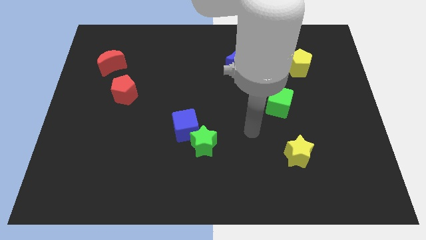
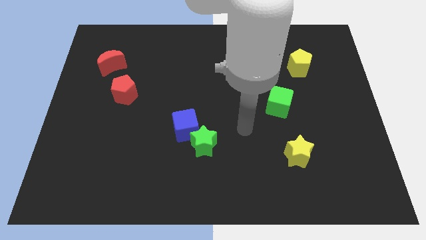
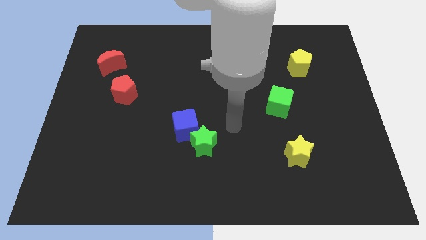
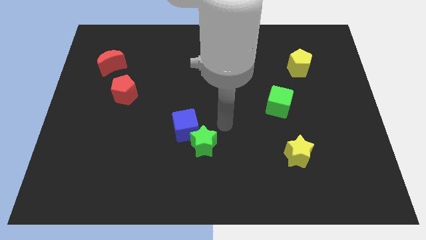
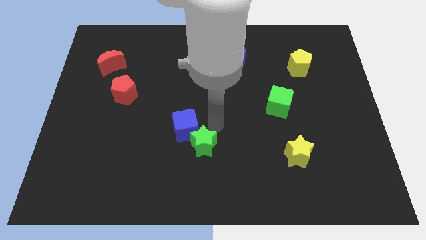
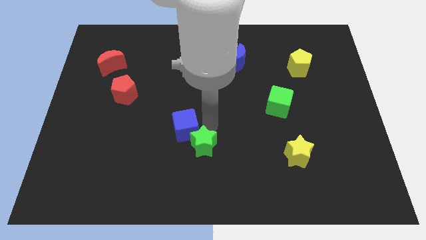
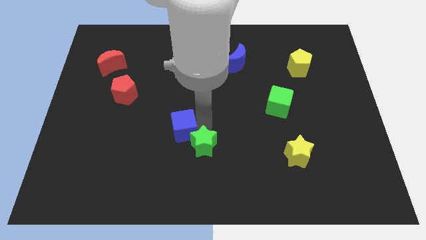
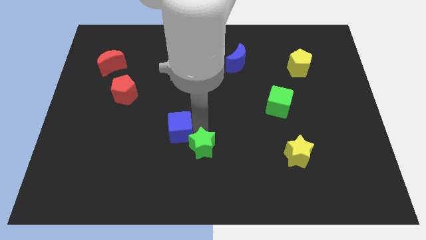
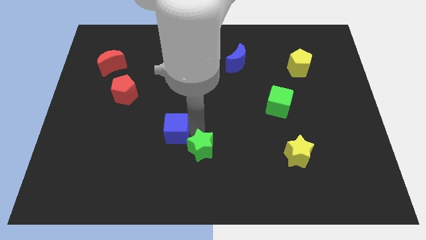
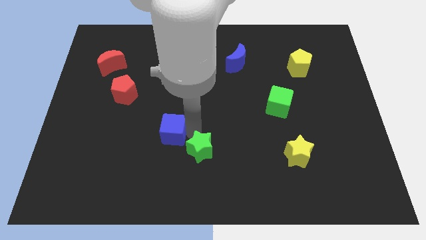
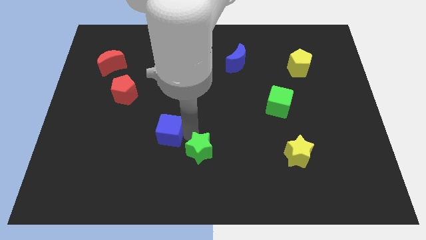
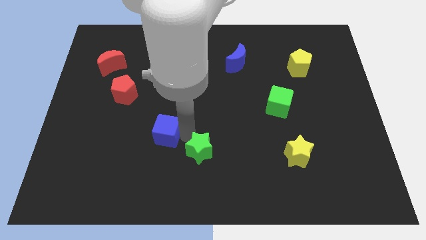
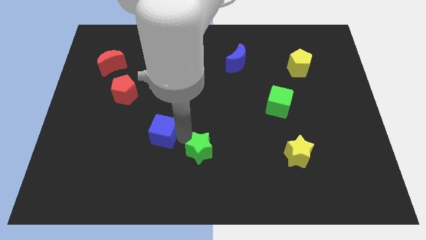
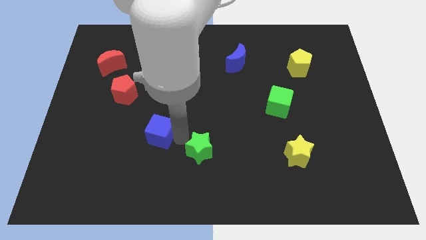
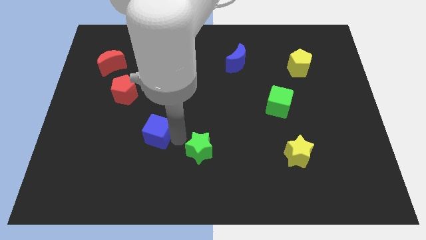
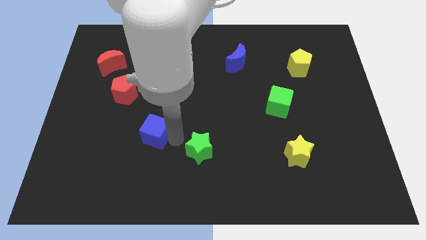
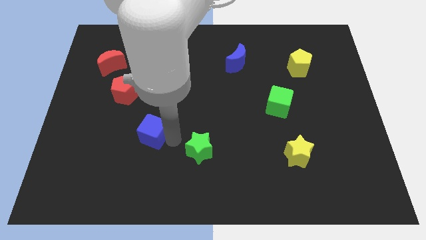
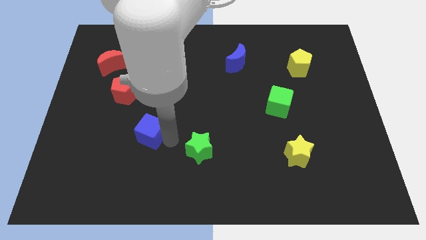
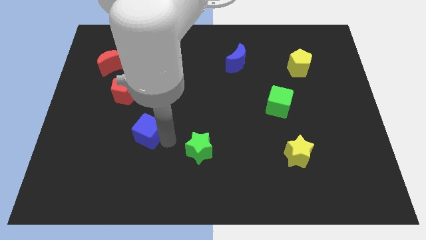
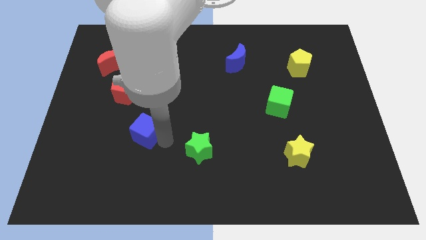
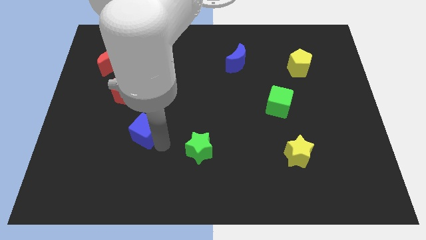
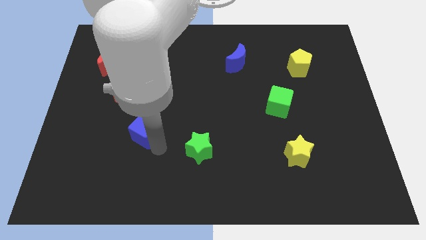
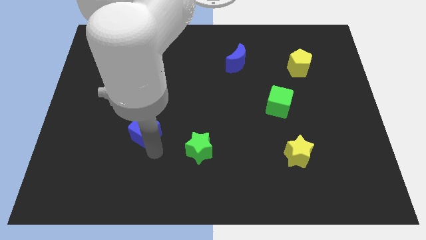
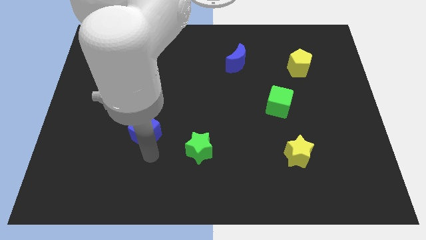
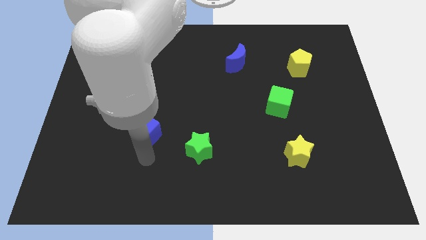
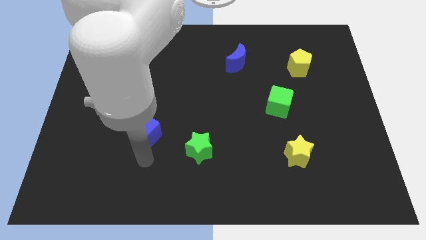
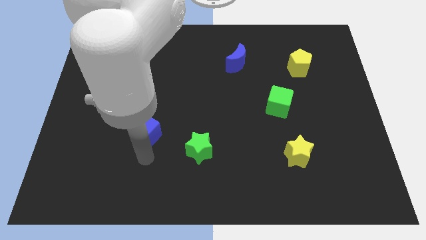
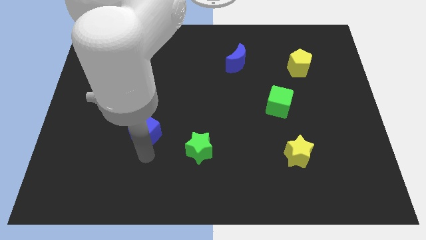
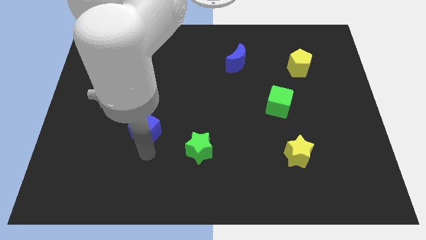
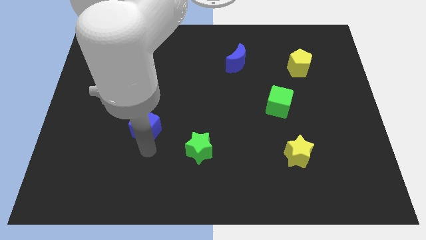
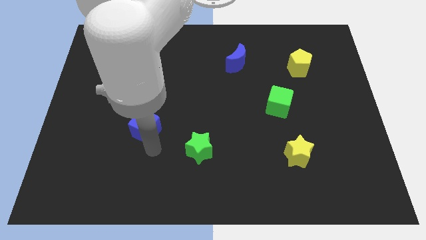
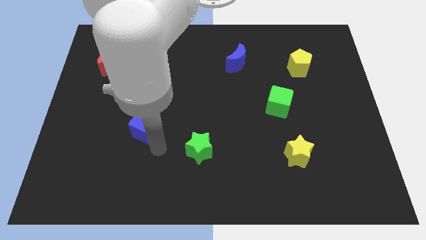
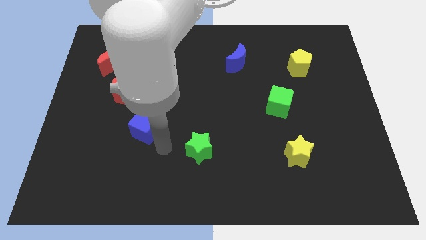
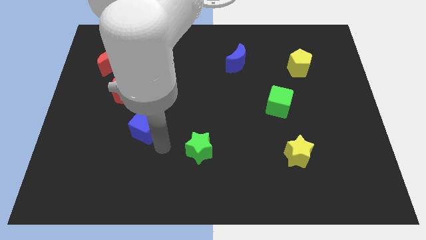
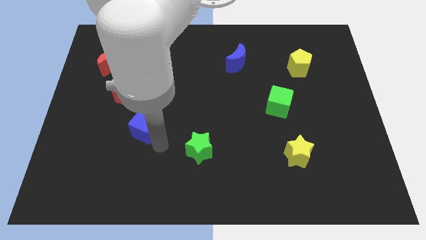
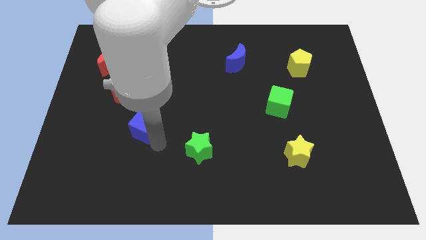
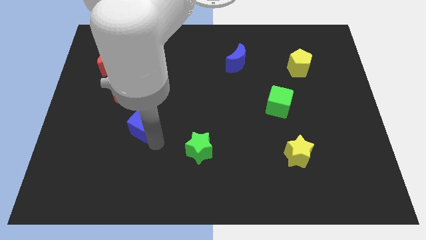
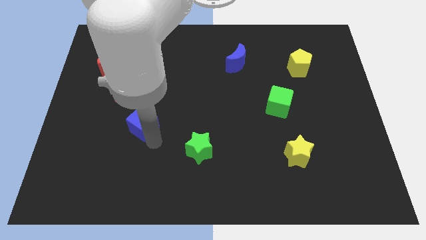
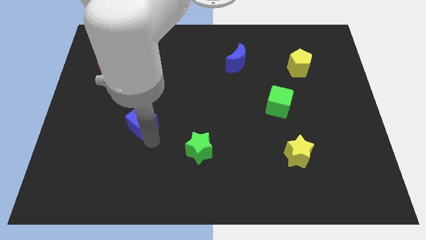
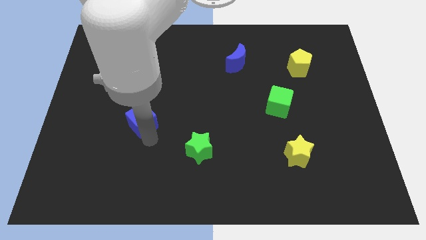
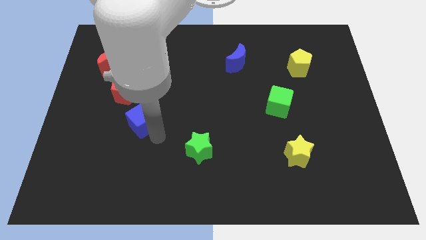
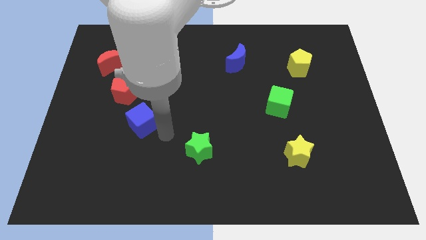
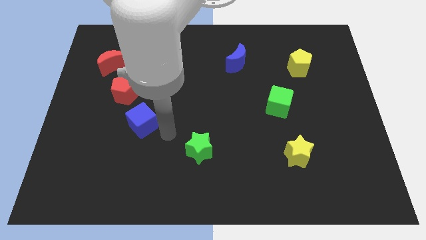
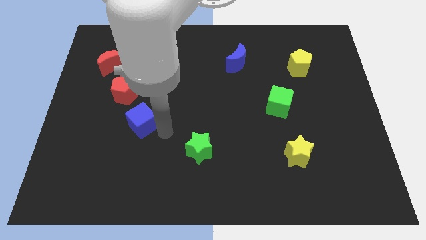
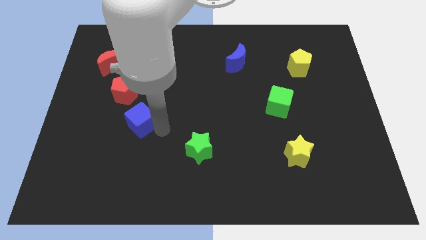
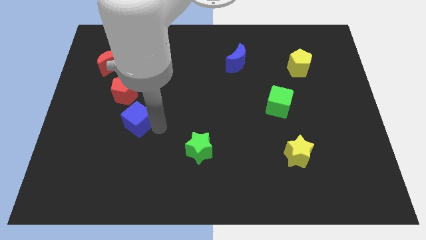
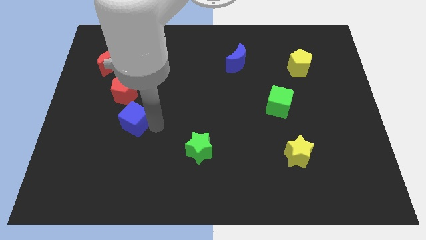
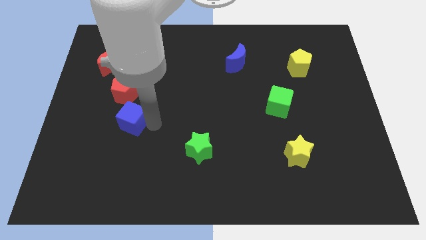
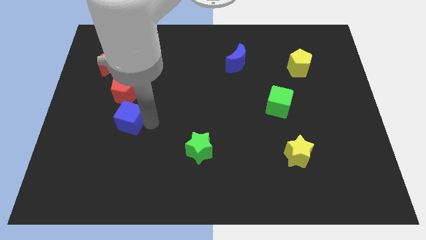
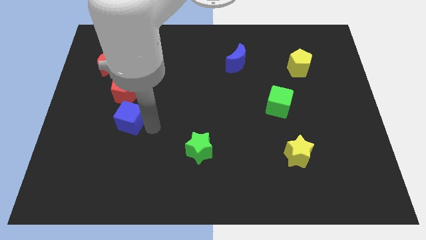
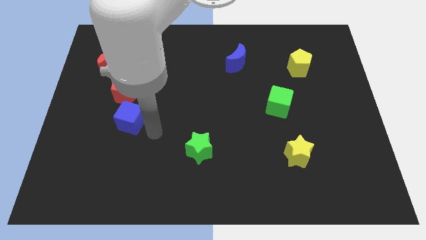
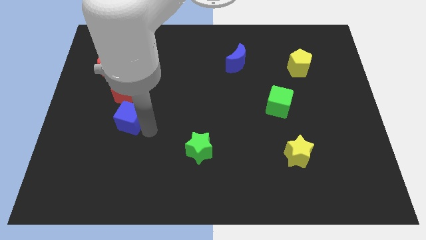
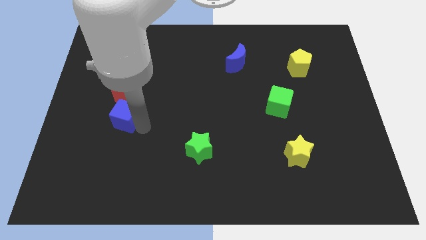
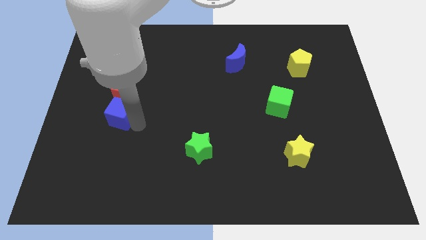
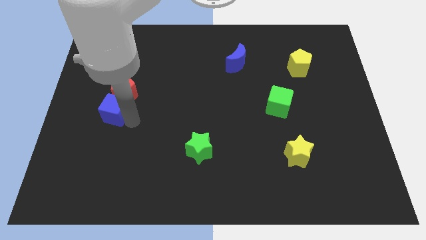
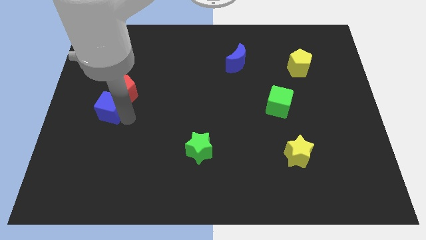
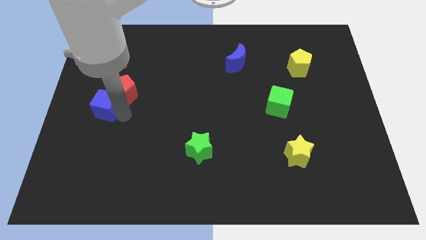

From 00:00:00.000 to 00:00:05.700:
push the blue cube to the left side
